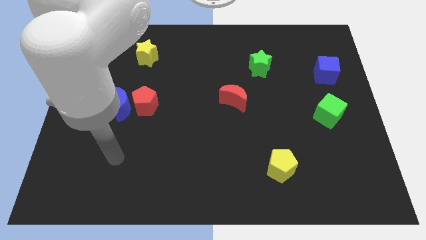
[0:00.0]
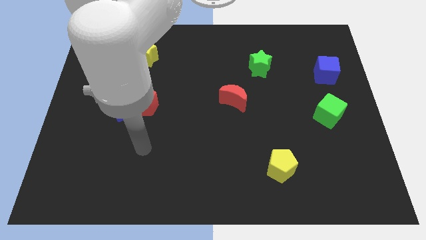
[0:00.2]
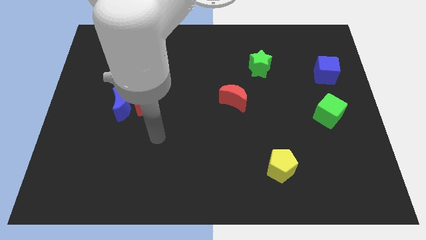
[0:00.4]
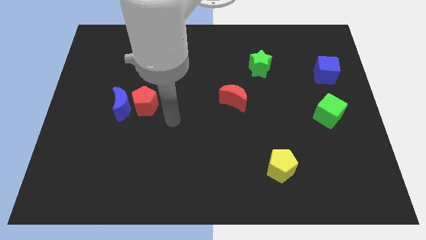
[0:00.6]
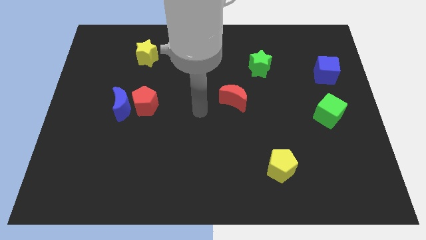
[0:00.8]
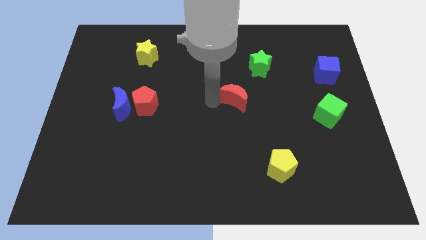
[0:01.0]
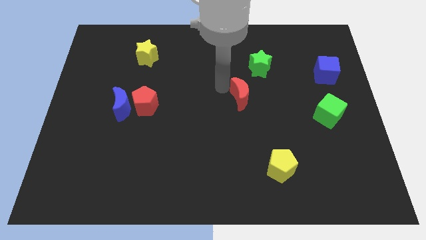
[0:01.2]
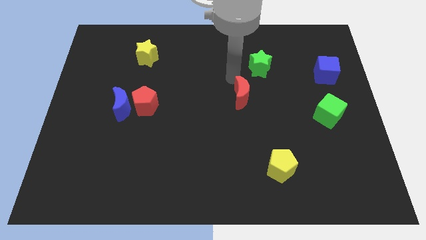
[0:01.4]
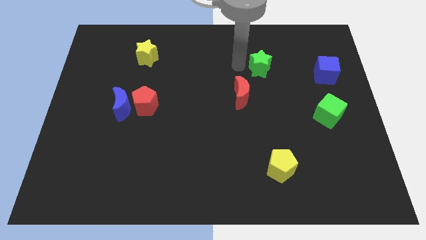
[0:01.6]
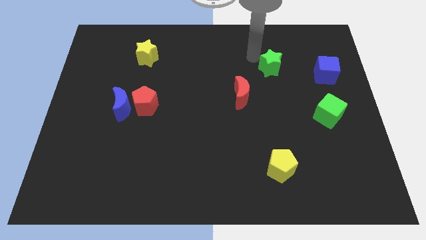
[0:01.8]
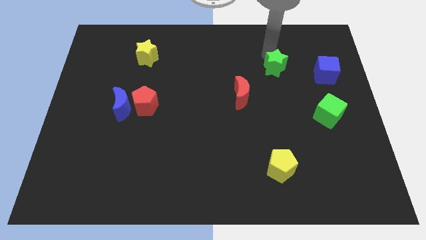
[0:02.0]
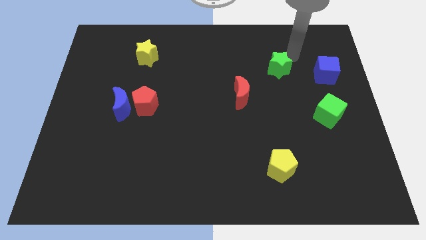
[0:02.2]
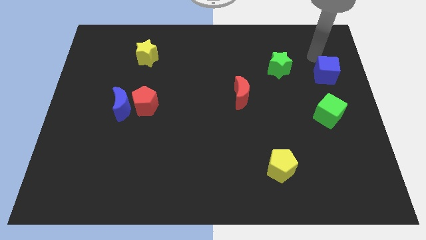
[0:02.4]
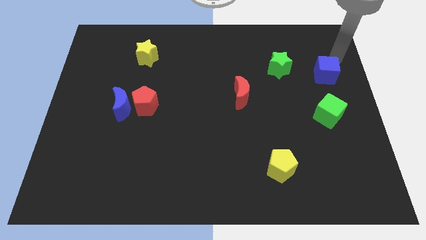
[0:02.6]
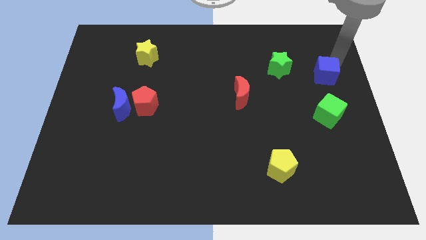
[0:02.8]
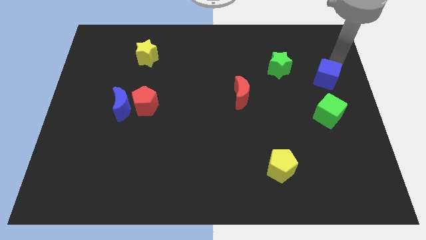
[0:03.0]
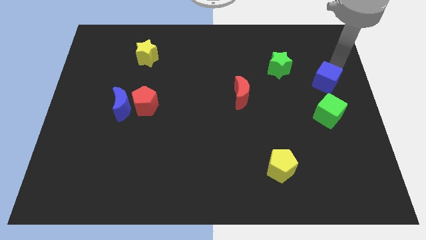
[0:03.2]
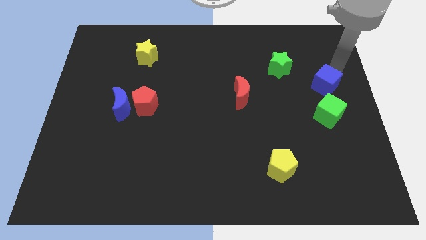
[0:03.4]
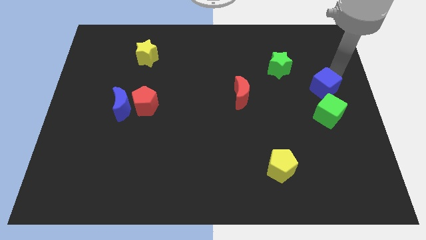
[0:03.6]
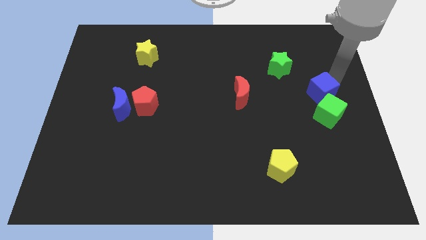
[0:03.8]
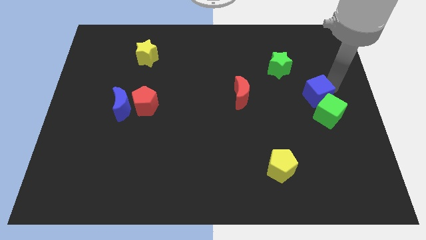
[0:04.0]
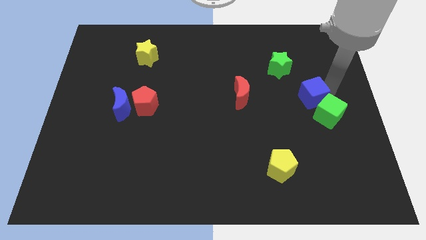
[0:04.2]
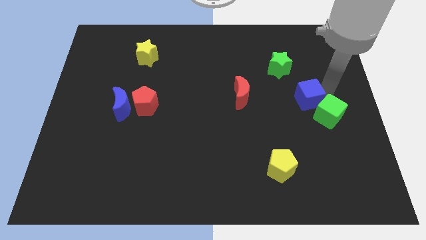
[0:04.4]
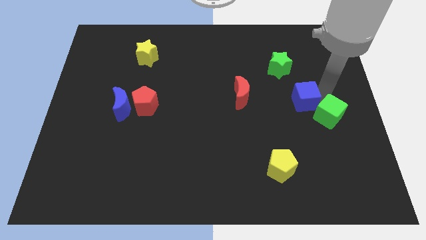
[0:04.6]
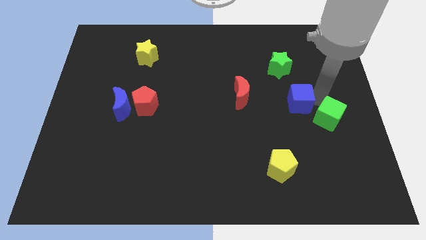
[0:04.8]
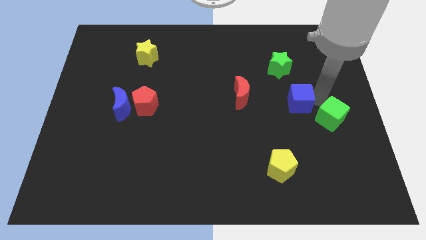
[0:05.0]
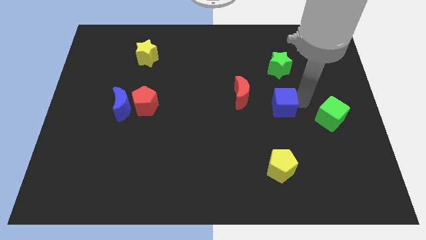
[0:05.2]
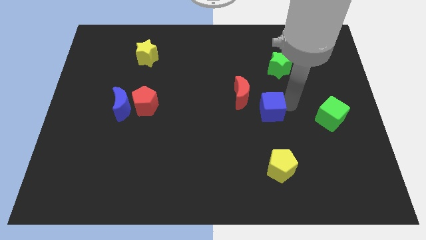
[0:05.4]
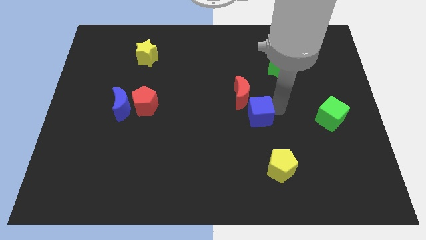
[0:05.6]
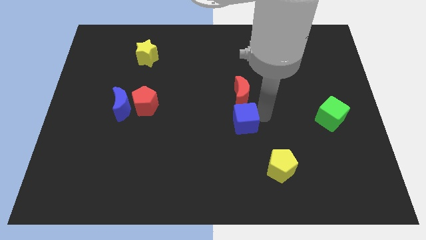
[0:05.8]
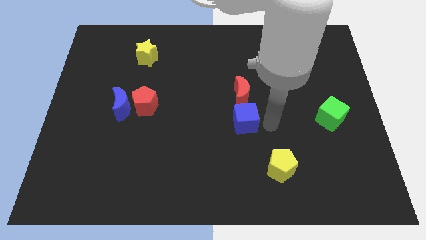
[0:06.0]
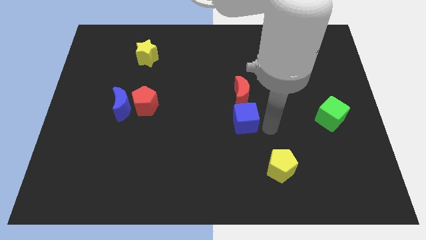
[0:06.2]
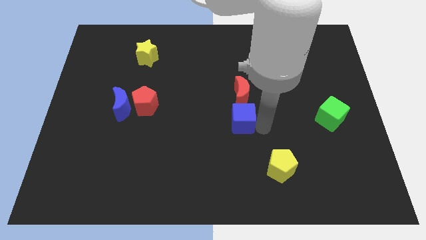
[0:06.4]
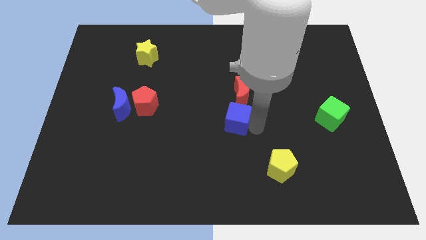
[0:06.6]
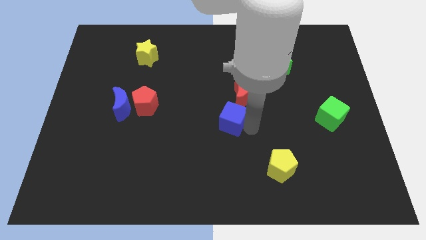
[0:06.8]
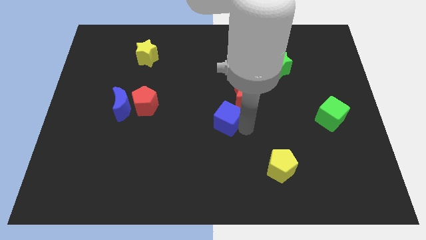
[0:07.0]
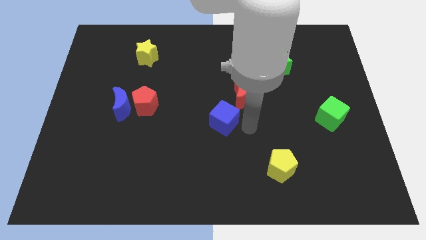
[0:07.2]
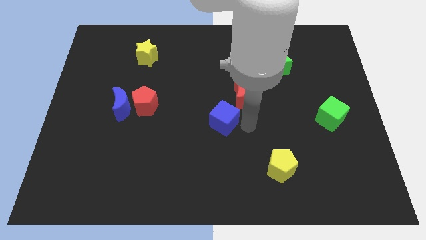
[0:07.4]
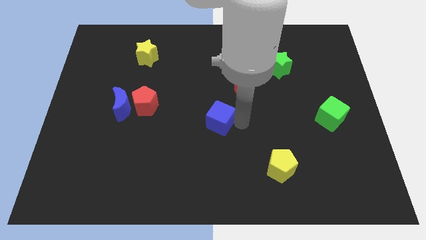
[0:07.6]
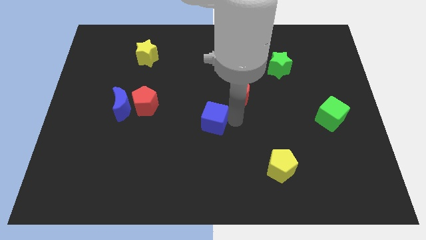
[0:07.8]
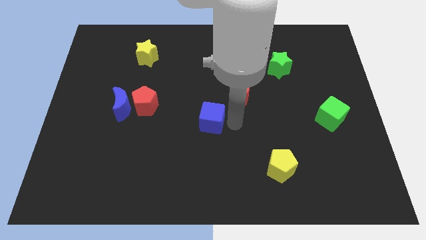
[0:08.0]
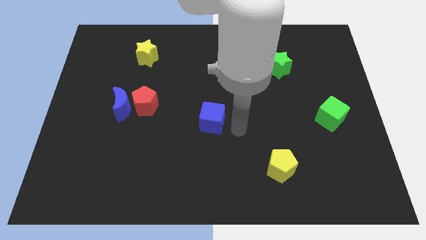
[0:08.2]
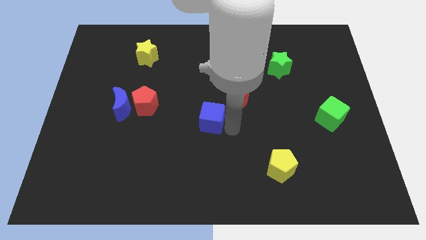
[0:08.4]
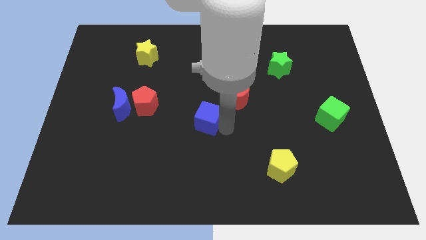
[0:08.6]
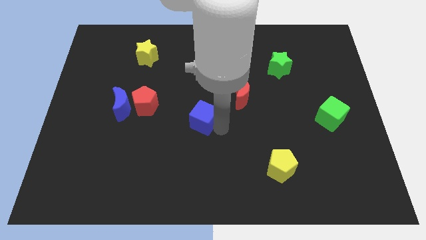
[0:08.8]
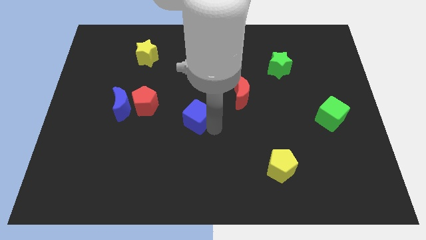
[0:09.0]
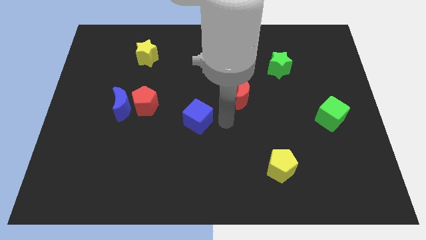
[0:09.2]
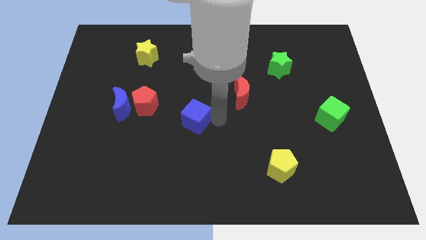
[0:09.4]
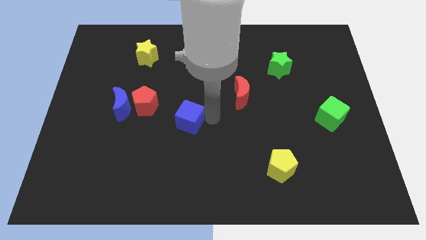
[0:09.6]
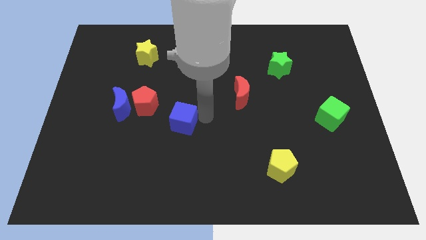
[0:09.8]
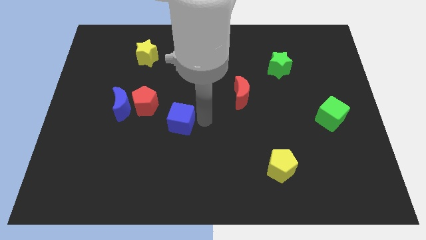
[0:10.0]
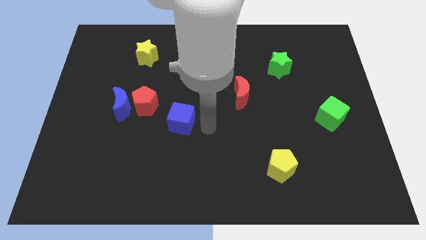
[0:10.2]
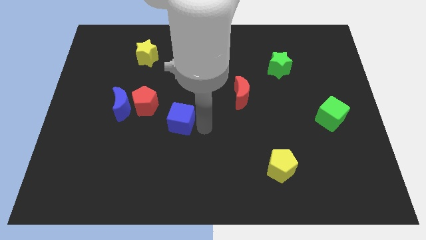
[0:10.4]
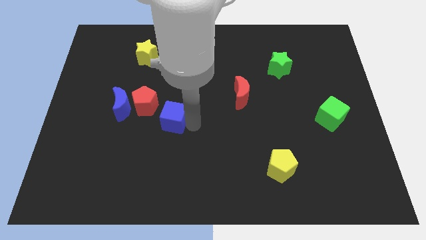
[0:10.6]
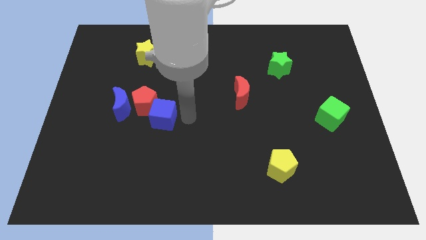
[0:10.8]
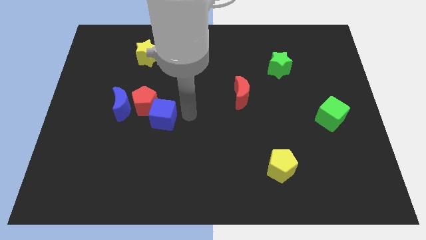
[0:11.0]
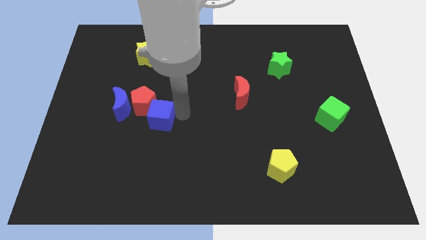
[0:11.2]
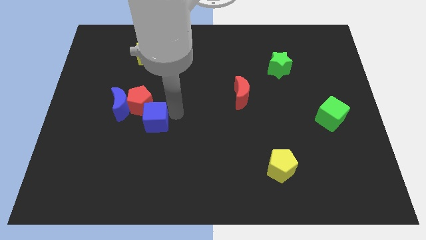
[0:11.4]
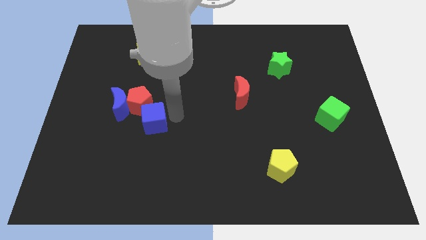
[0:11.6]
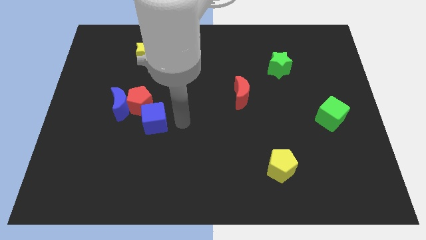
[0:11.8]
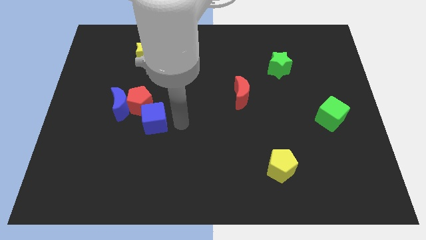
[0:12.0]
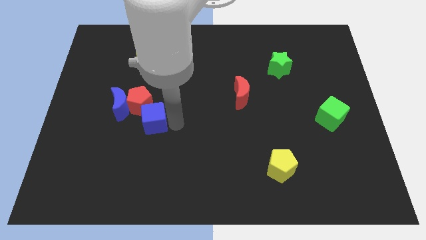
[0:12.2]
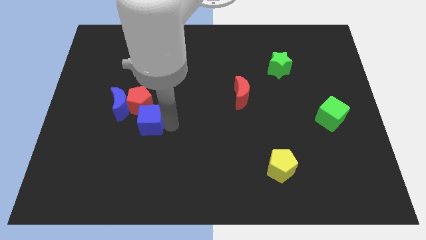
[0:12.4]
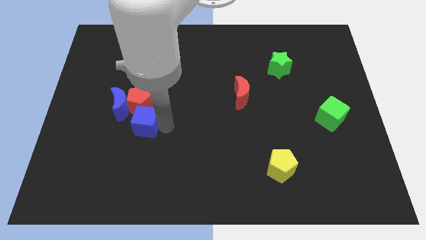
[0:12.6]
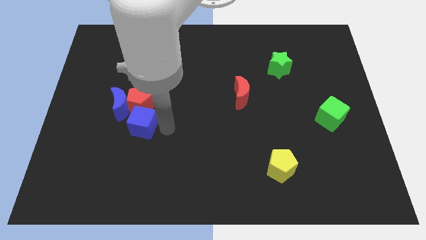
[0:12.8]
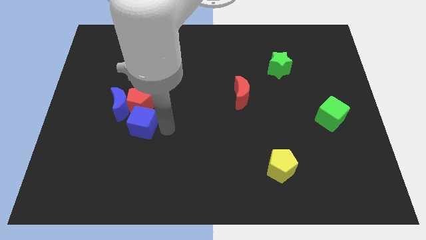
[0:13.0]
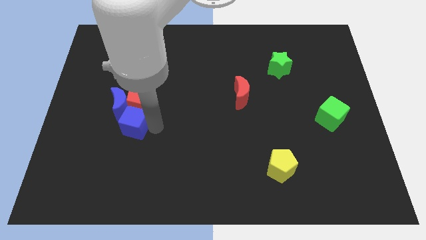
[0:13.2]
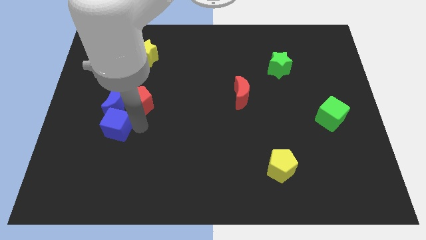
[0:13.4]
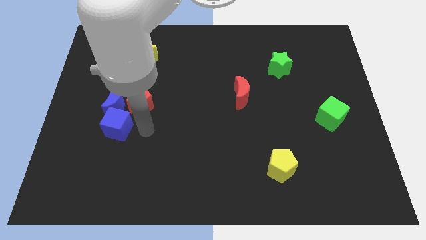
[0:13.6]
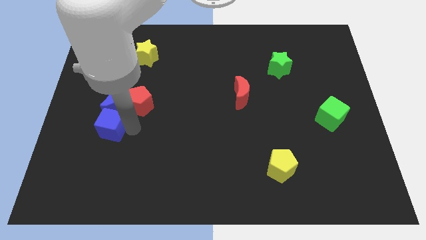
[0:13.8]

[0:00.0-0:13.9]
push the blue cube to the bottom left of the blue moon
